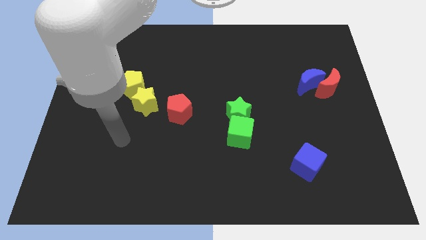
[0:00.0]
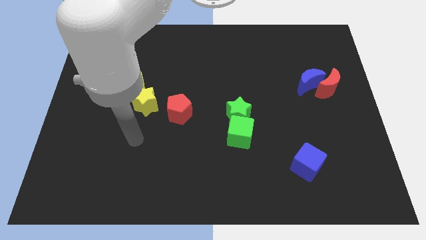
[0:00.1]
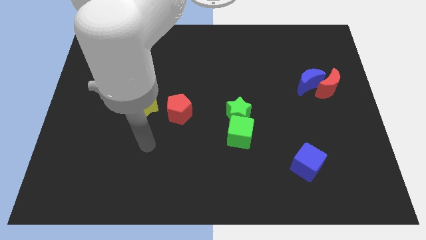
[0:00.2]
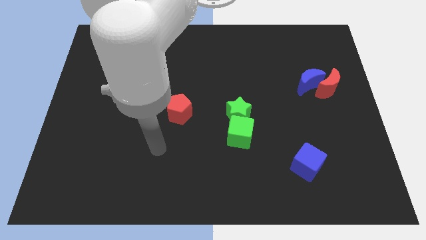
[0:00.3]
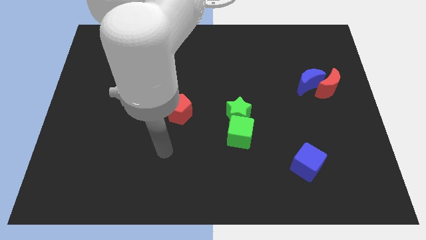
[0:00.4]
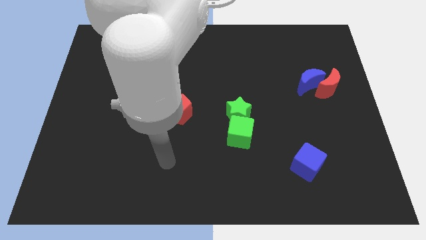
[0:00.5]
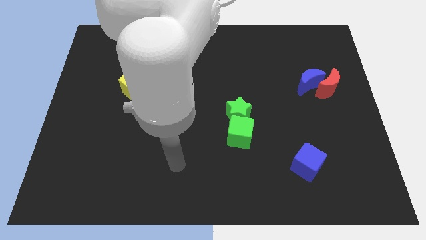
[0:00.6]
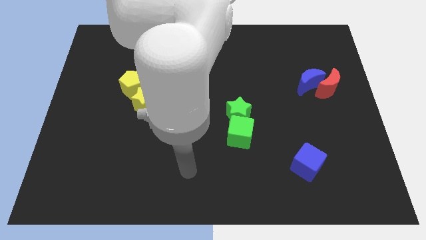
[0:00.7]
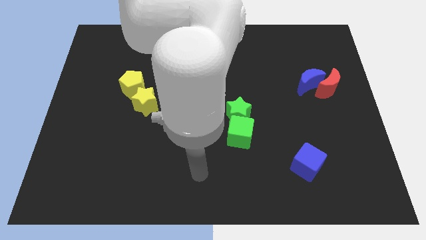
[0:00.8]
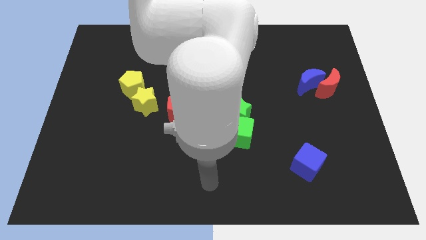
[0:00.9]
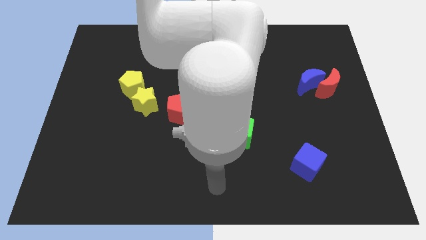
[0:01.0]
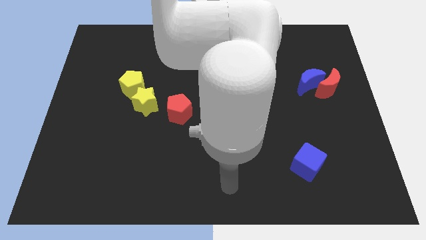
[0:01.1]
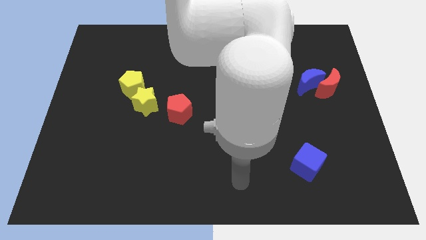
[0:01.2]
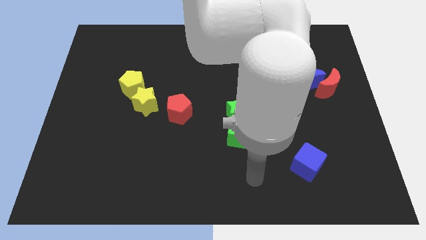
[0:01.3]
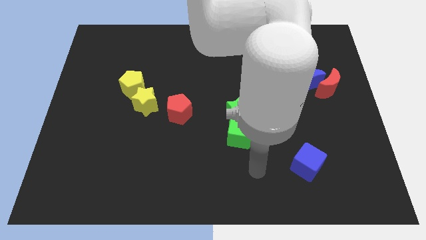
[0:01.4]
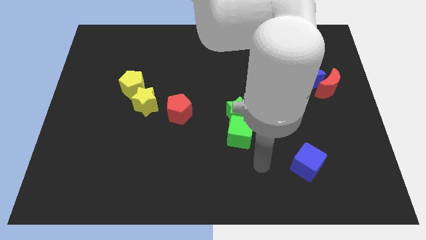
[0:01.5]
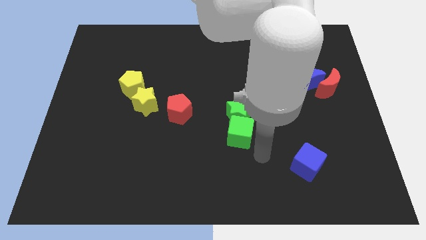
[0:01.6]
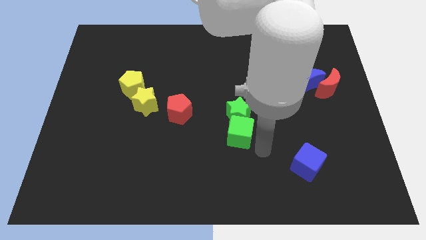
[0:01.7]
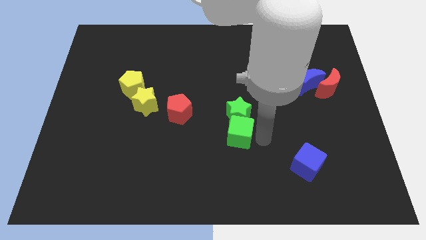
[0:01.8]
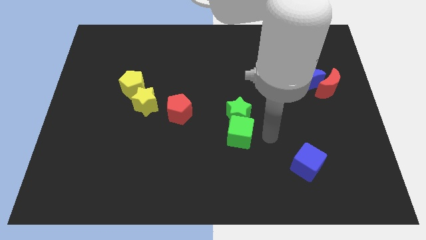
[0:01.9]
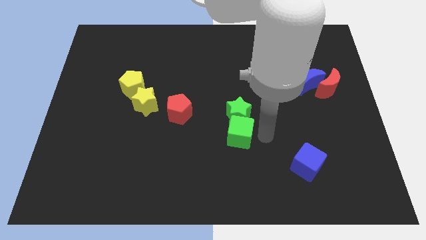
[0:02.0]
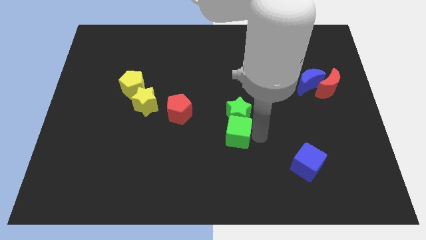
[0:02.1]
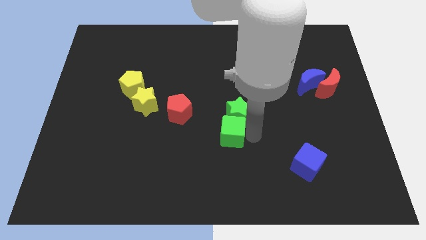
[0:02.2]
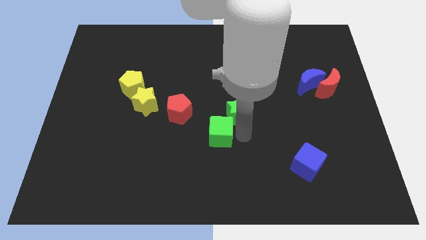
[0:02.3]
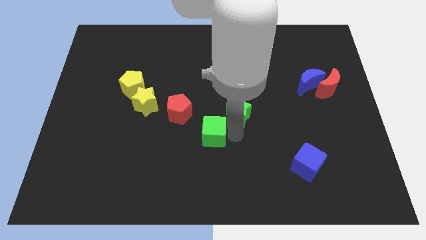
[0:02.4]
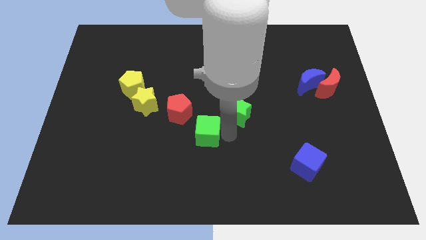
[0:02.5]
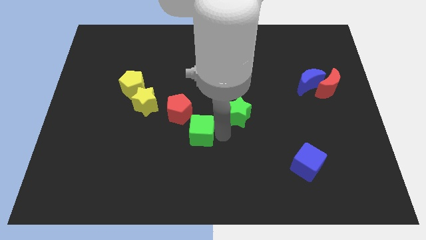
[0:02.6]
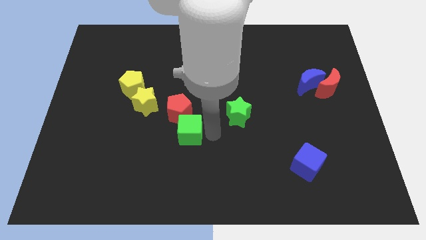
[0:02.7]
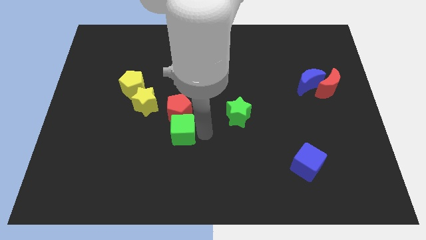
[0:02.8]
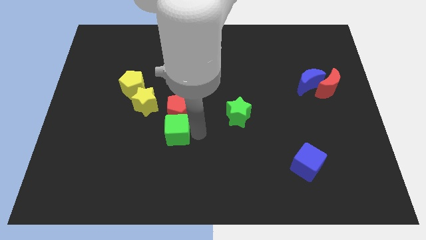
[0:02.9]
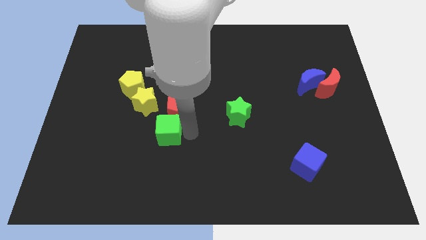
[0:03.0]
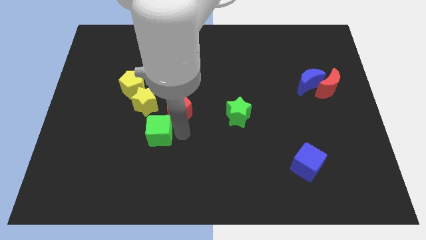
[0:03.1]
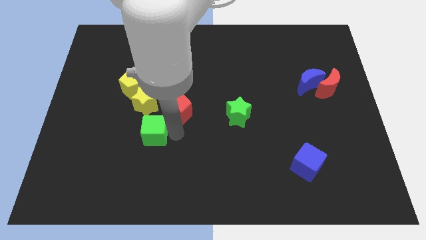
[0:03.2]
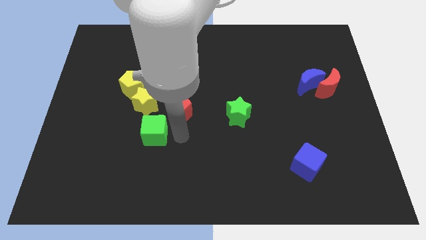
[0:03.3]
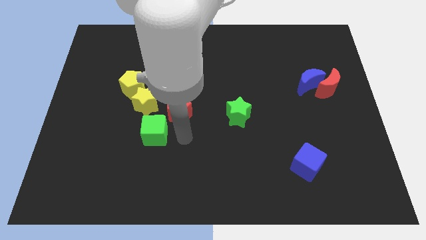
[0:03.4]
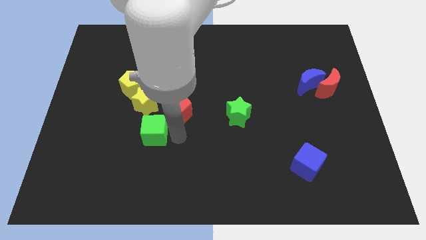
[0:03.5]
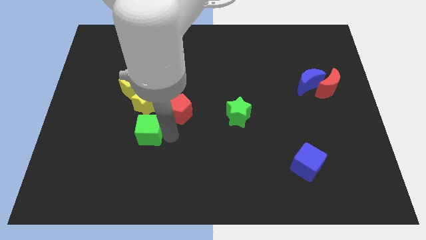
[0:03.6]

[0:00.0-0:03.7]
push the green cube to the left

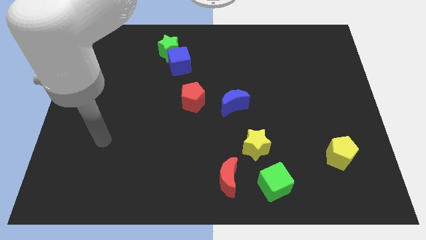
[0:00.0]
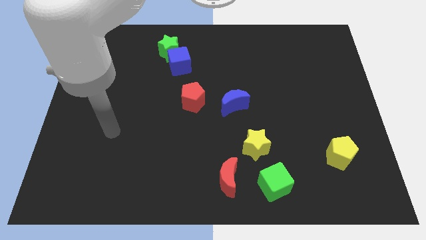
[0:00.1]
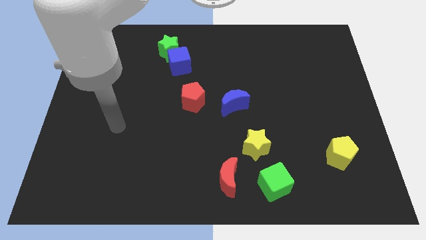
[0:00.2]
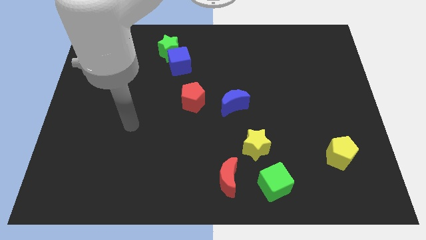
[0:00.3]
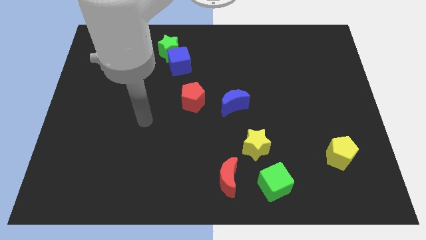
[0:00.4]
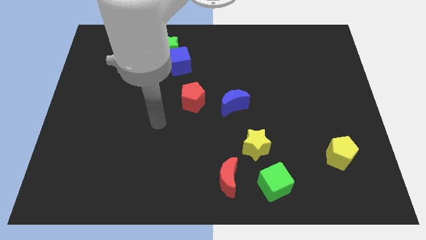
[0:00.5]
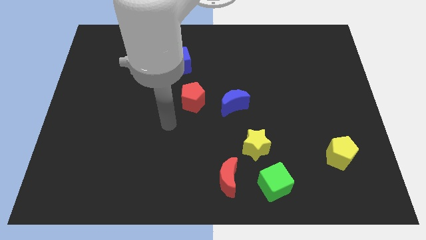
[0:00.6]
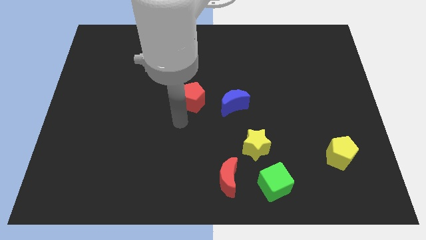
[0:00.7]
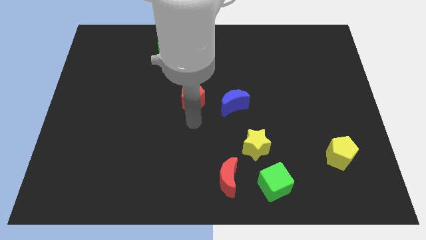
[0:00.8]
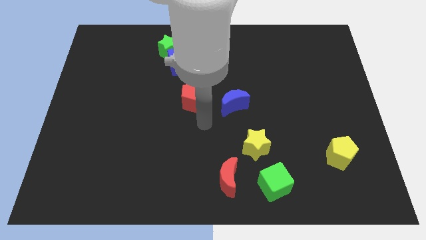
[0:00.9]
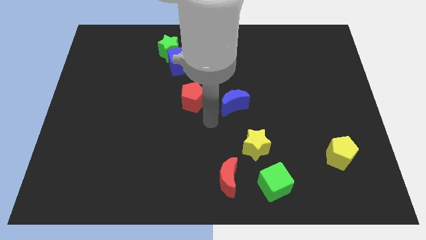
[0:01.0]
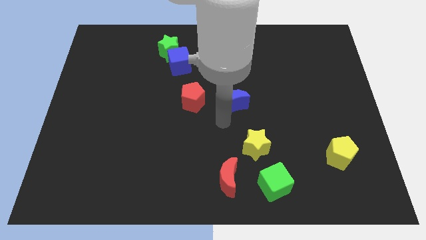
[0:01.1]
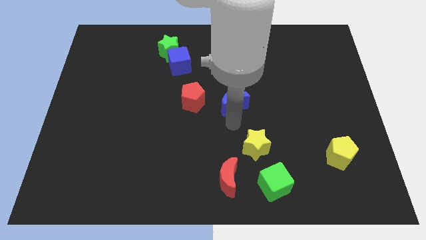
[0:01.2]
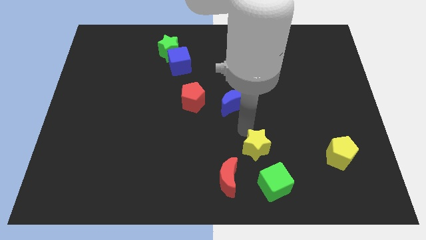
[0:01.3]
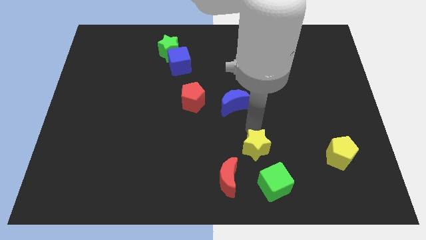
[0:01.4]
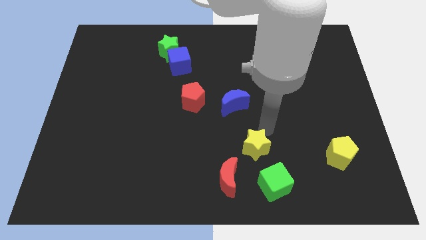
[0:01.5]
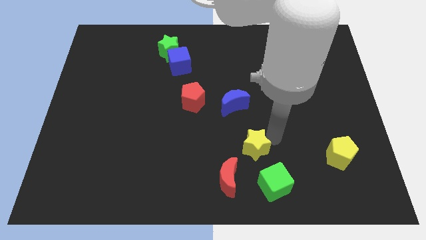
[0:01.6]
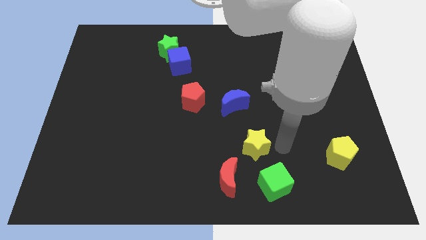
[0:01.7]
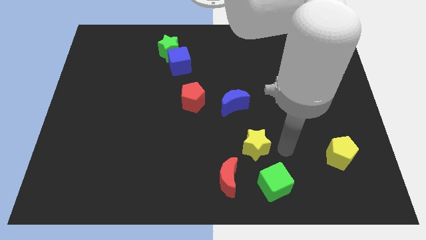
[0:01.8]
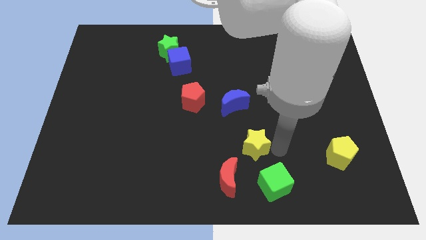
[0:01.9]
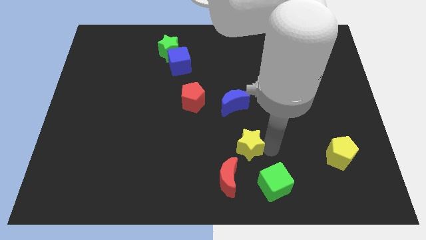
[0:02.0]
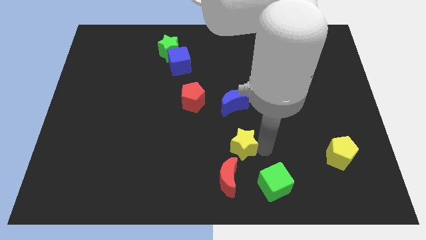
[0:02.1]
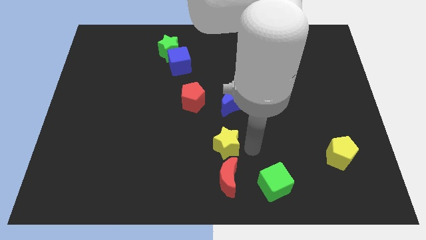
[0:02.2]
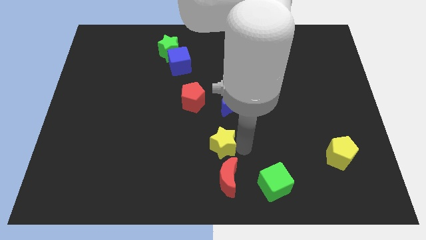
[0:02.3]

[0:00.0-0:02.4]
slide the yellow star left a bit

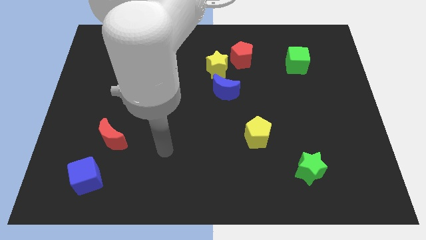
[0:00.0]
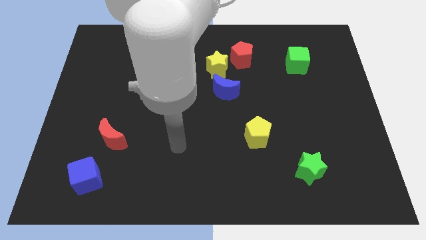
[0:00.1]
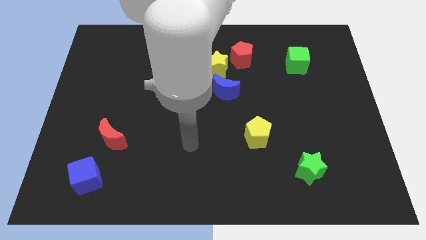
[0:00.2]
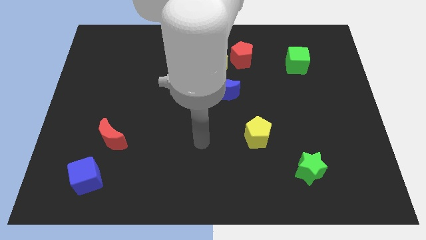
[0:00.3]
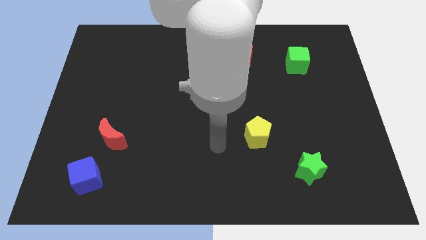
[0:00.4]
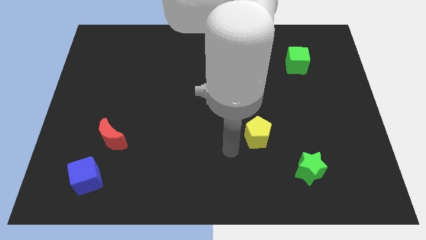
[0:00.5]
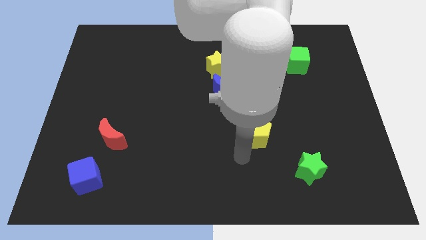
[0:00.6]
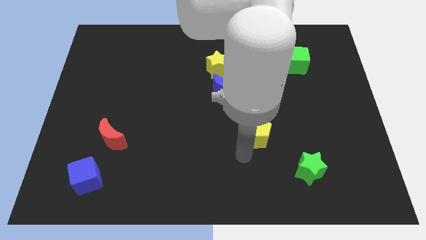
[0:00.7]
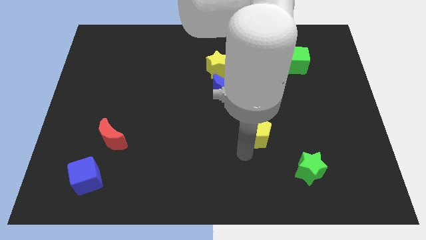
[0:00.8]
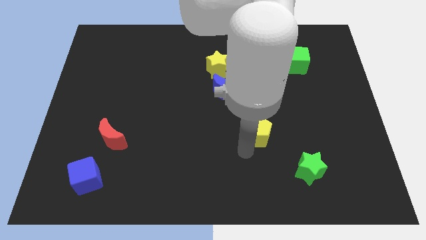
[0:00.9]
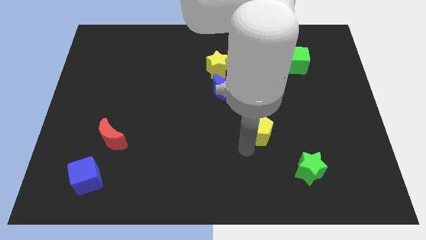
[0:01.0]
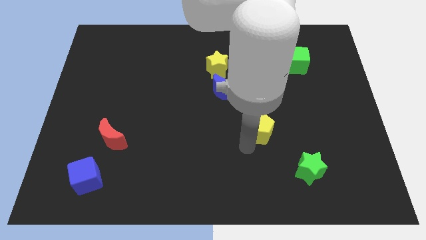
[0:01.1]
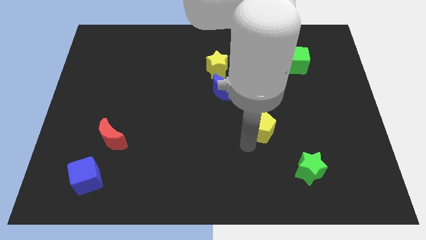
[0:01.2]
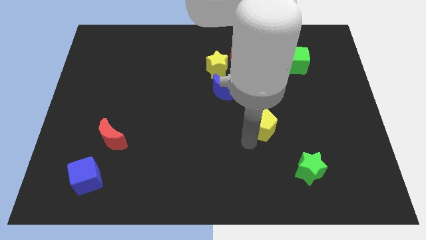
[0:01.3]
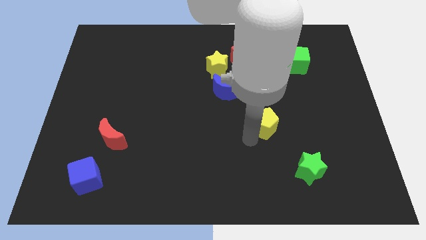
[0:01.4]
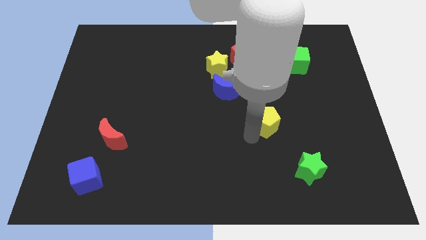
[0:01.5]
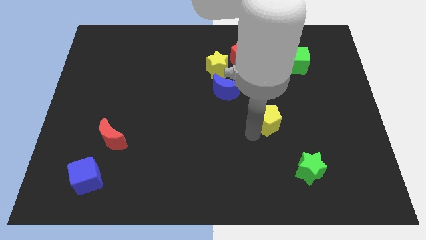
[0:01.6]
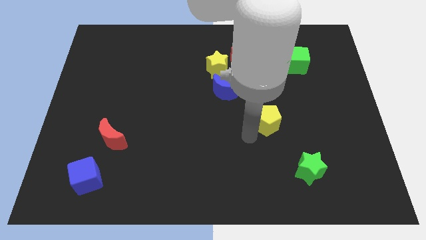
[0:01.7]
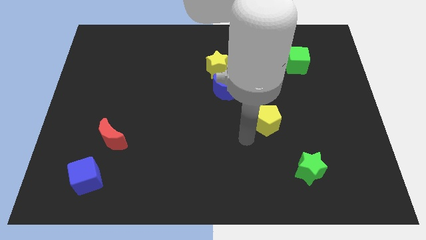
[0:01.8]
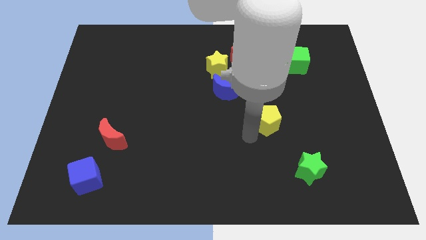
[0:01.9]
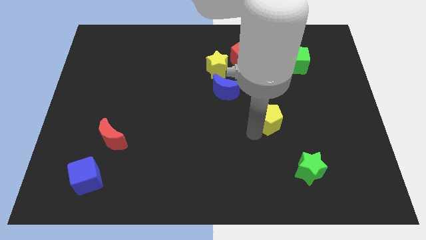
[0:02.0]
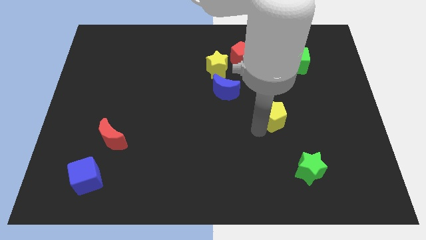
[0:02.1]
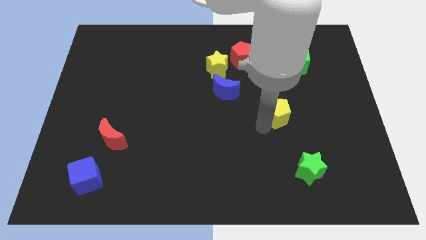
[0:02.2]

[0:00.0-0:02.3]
slightly slide the yellow pentagon diagonally up and right
